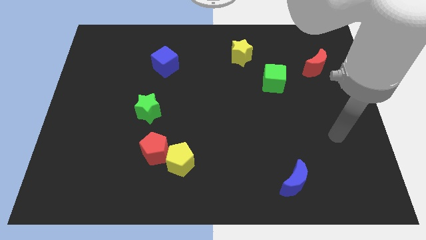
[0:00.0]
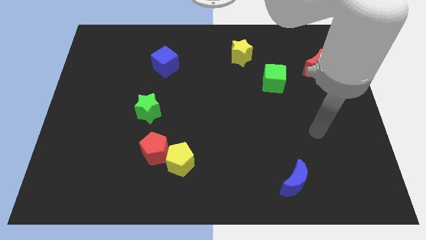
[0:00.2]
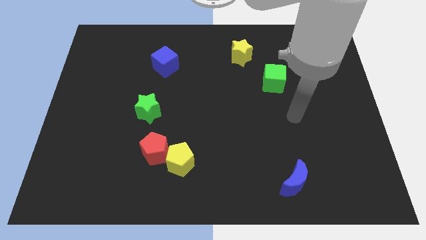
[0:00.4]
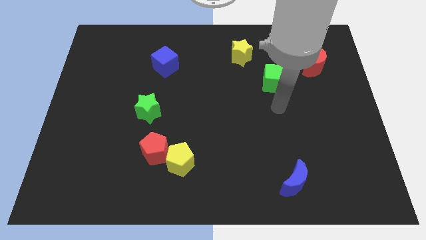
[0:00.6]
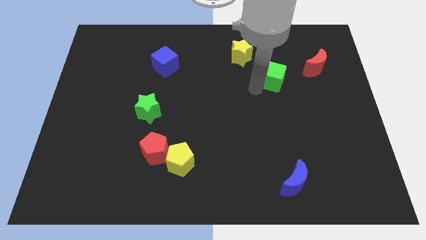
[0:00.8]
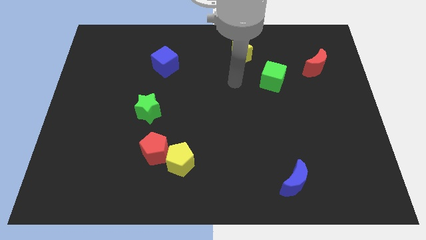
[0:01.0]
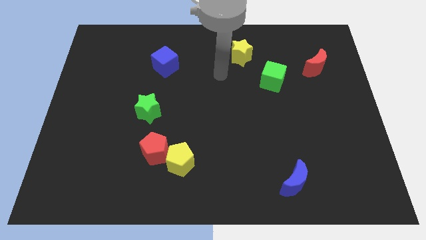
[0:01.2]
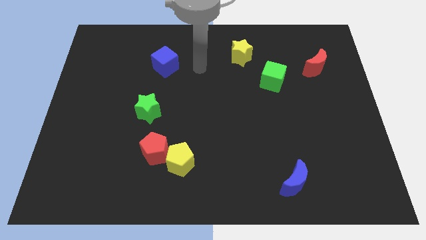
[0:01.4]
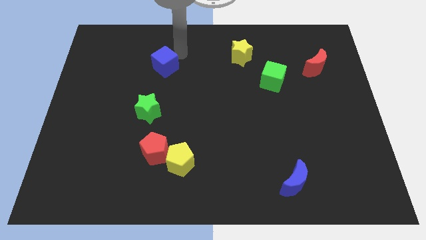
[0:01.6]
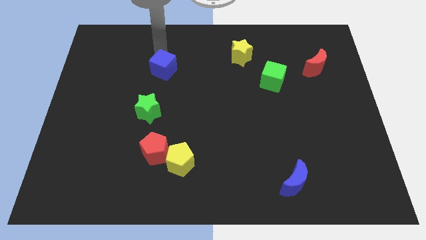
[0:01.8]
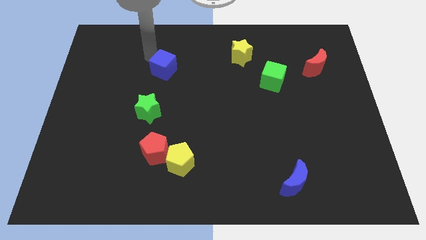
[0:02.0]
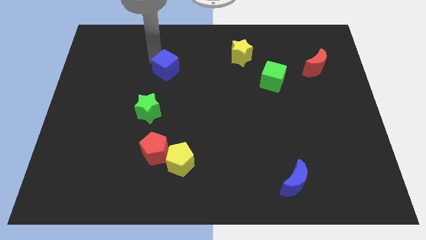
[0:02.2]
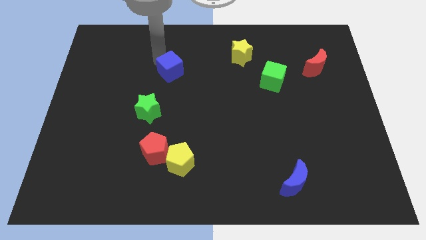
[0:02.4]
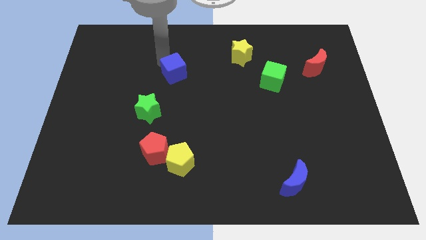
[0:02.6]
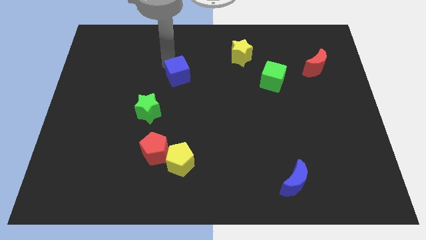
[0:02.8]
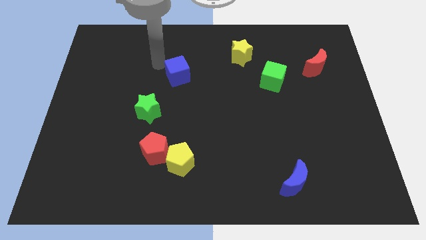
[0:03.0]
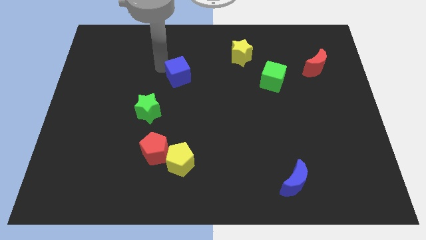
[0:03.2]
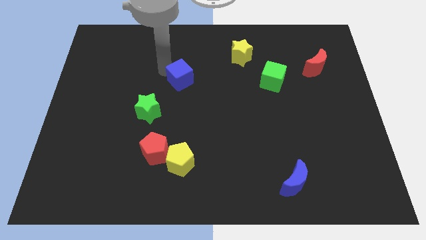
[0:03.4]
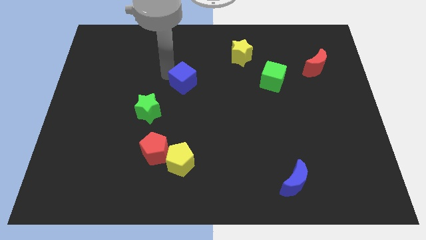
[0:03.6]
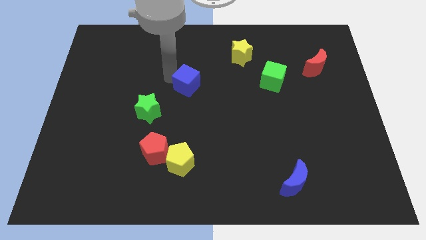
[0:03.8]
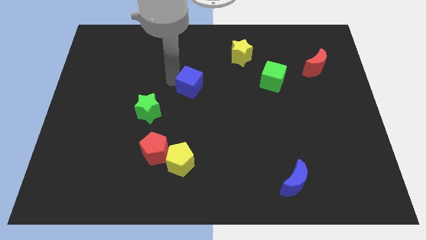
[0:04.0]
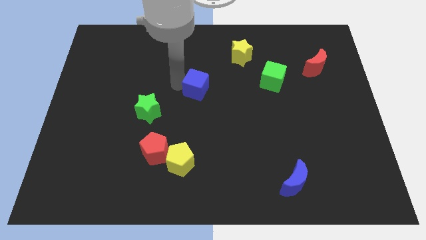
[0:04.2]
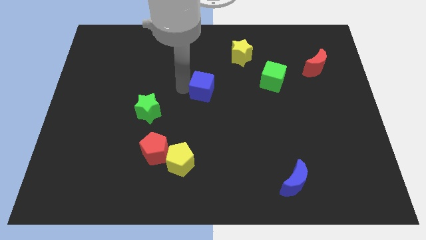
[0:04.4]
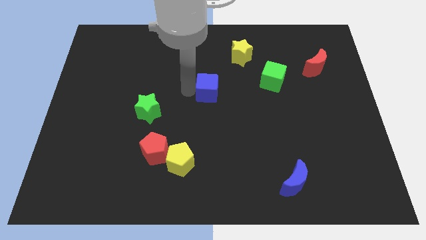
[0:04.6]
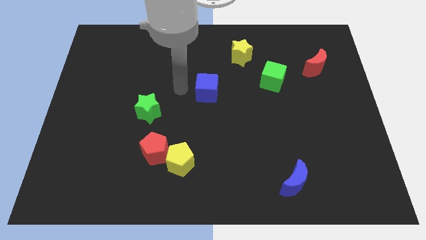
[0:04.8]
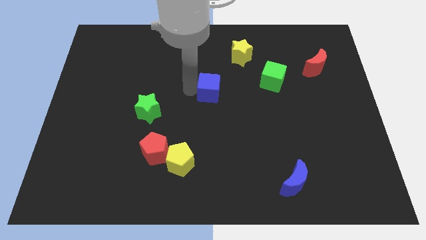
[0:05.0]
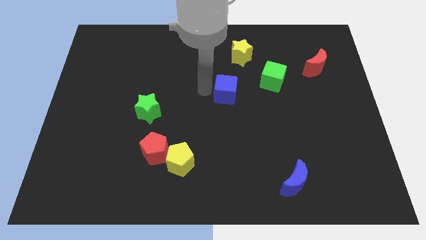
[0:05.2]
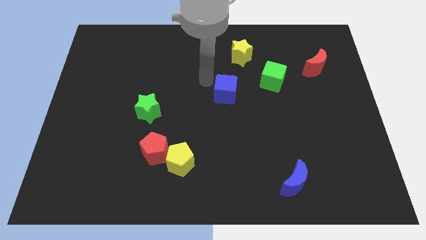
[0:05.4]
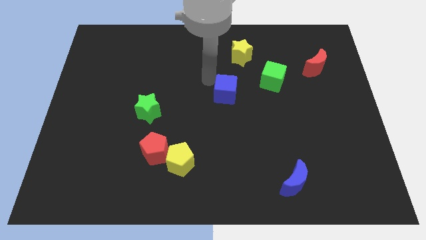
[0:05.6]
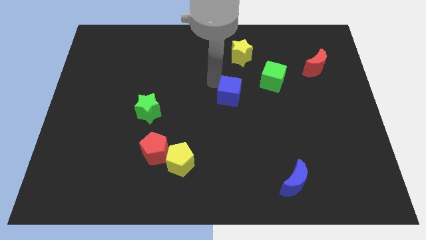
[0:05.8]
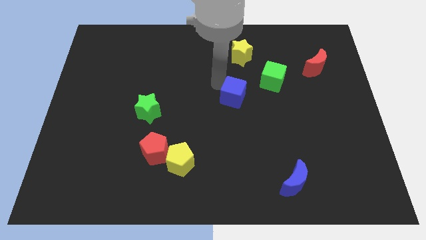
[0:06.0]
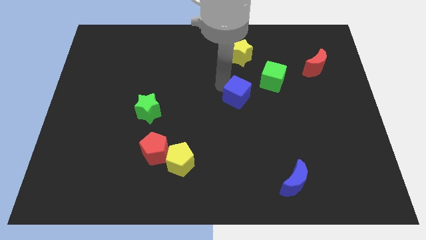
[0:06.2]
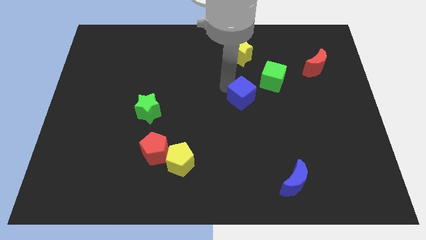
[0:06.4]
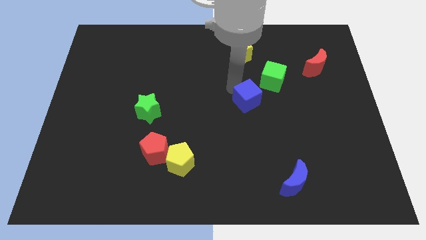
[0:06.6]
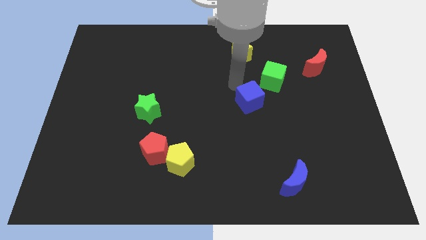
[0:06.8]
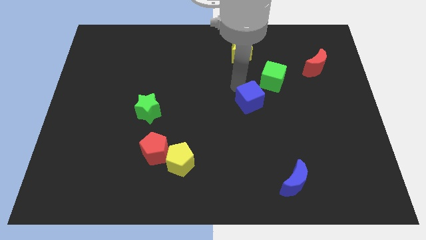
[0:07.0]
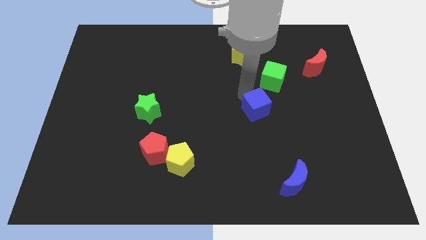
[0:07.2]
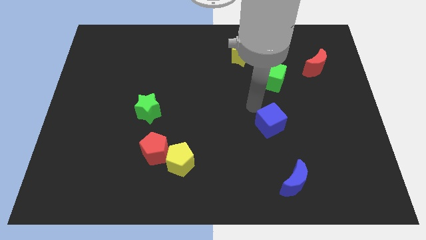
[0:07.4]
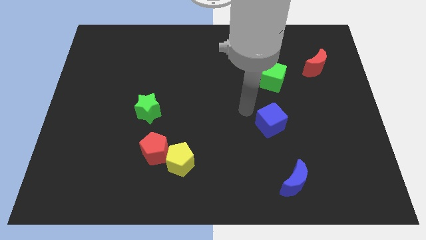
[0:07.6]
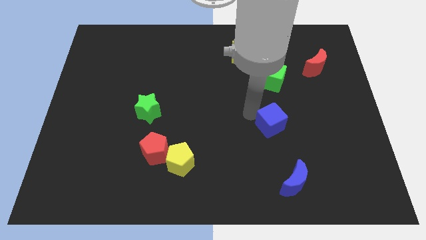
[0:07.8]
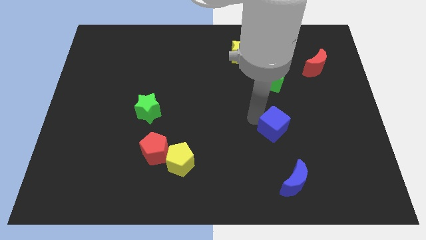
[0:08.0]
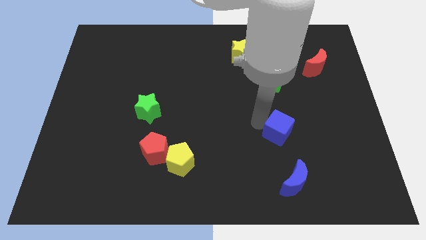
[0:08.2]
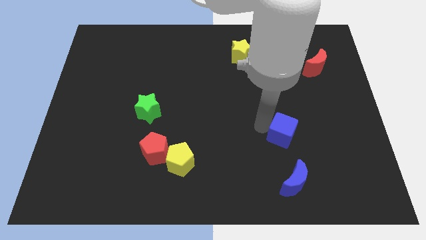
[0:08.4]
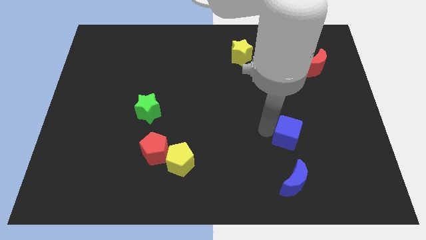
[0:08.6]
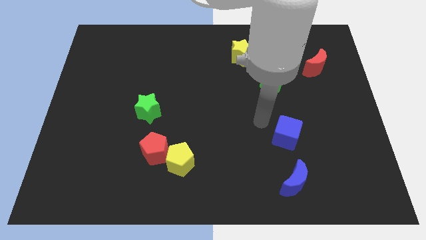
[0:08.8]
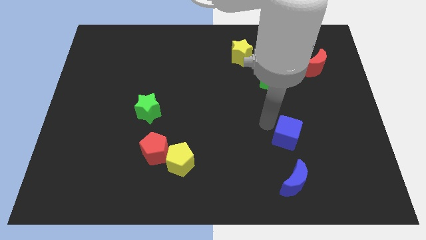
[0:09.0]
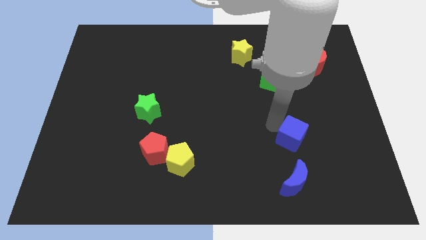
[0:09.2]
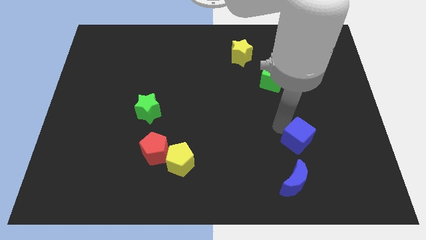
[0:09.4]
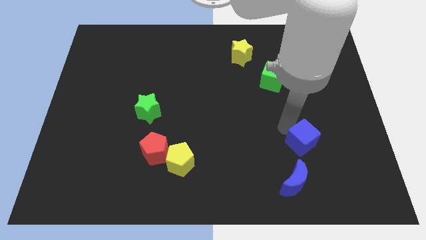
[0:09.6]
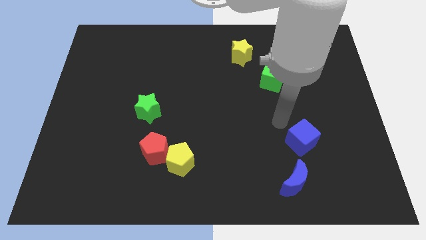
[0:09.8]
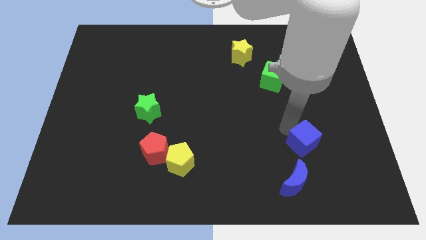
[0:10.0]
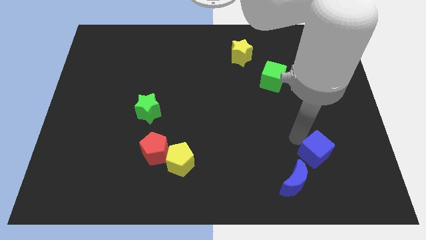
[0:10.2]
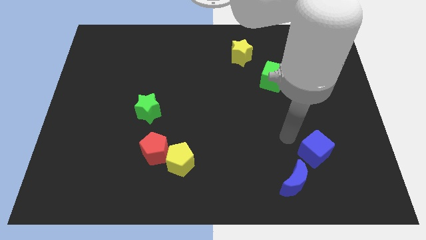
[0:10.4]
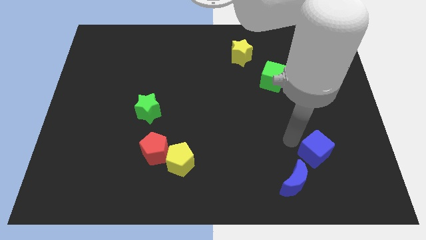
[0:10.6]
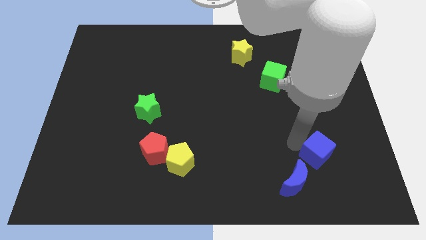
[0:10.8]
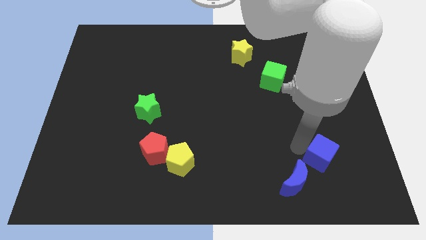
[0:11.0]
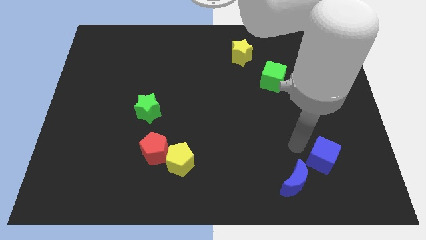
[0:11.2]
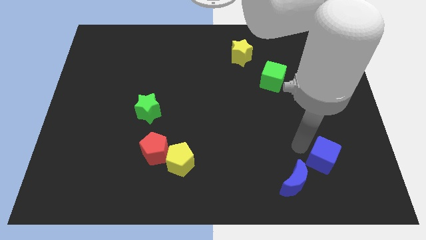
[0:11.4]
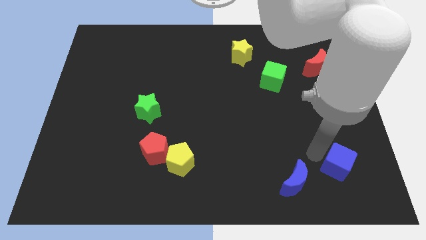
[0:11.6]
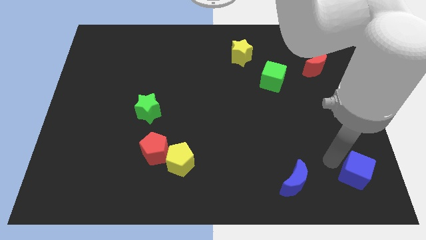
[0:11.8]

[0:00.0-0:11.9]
move the blue cube to the bottom right of the board

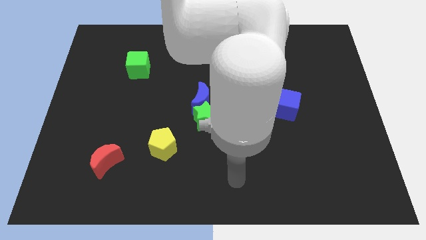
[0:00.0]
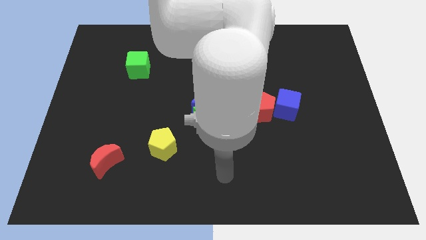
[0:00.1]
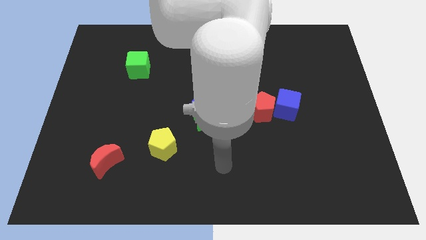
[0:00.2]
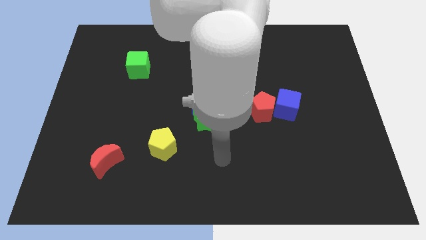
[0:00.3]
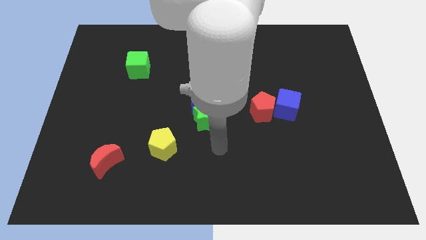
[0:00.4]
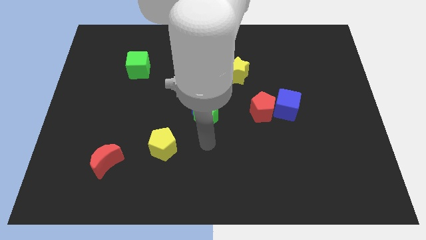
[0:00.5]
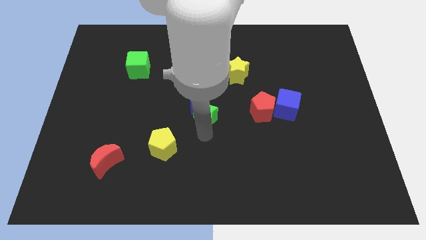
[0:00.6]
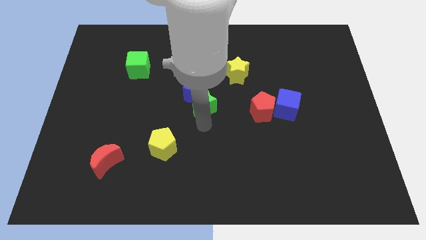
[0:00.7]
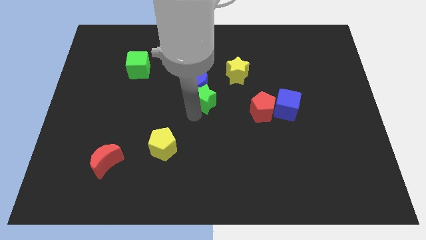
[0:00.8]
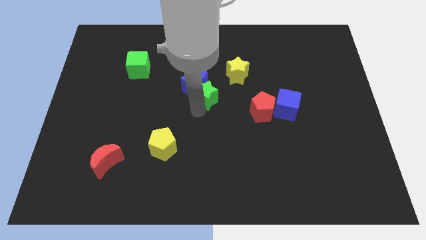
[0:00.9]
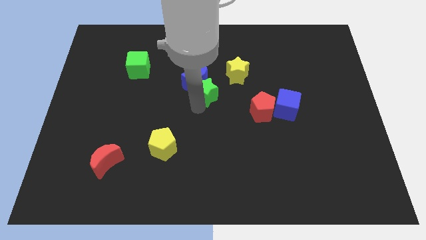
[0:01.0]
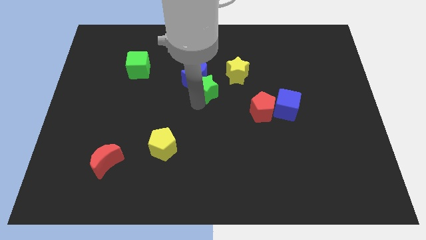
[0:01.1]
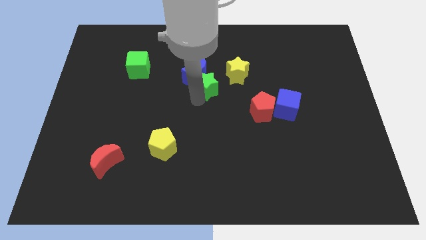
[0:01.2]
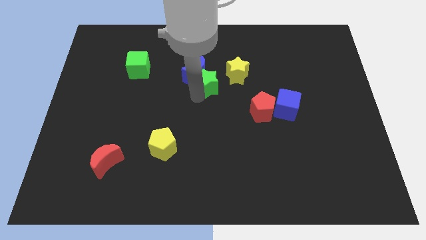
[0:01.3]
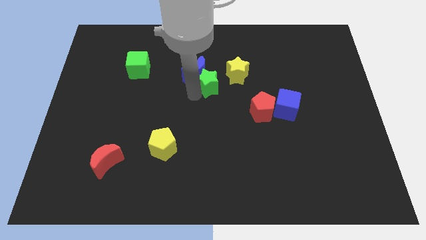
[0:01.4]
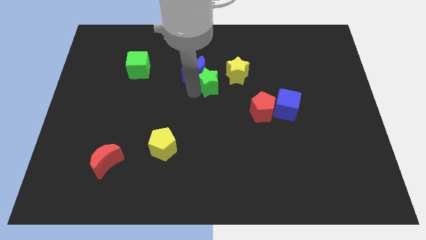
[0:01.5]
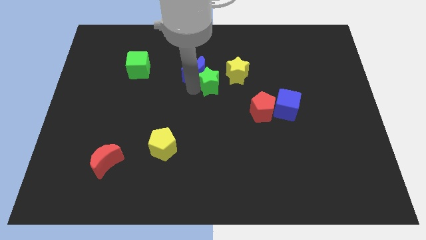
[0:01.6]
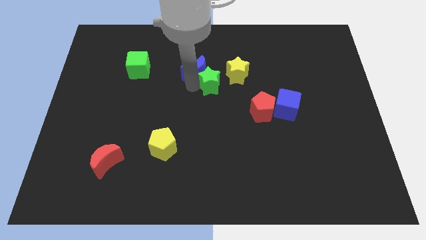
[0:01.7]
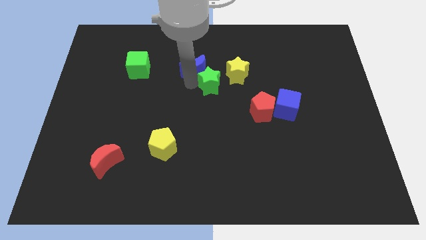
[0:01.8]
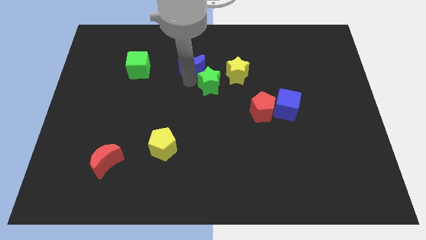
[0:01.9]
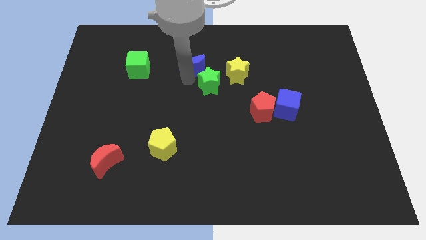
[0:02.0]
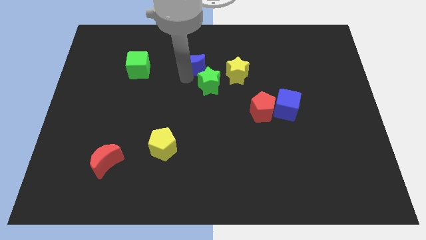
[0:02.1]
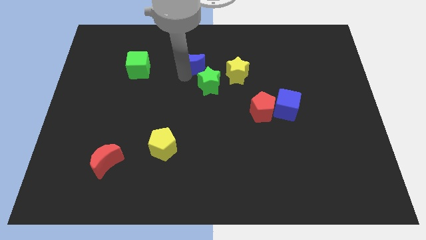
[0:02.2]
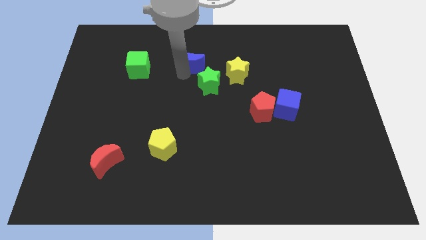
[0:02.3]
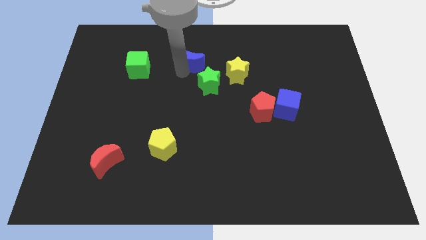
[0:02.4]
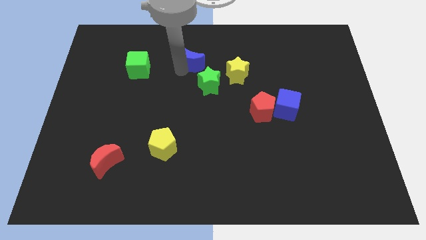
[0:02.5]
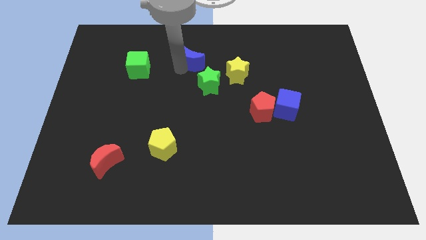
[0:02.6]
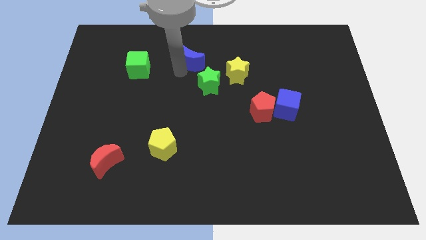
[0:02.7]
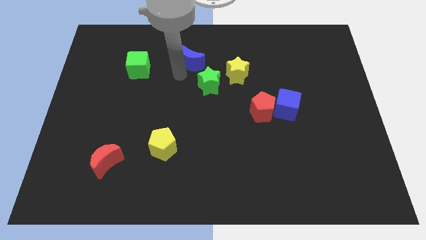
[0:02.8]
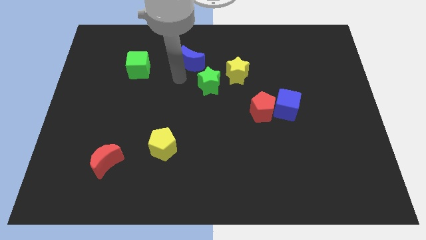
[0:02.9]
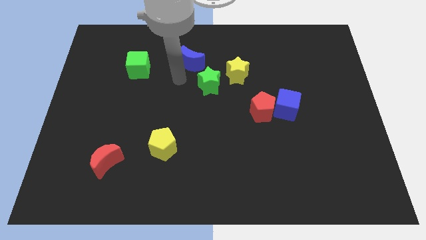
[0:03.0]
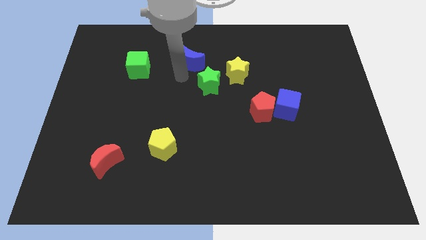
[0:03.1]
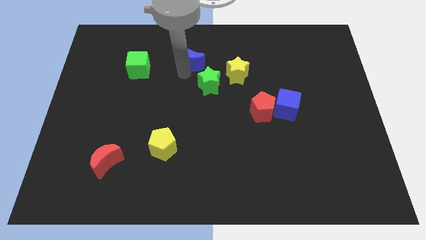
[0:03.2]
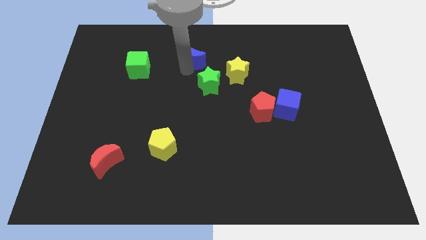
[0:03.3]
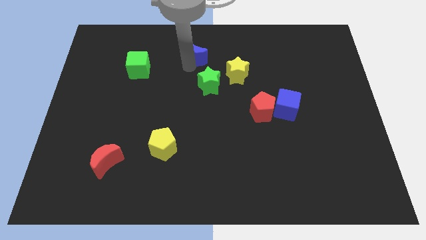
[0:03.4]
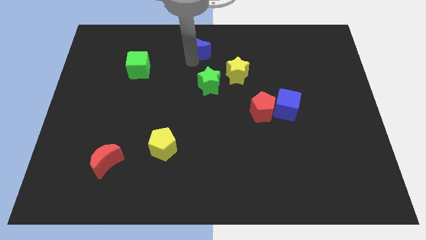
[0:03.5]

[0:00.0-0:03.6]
push the blue moon to the top
